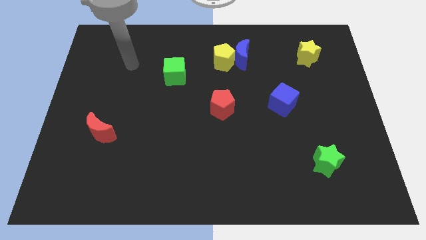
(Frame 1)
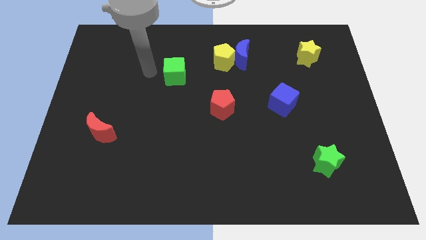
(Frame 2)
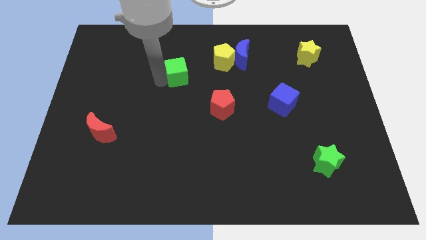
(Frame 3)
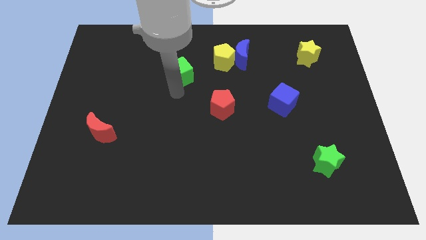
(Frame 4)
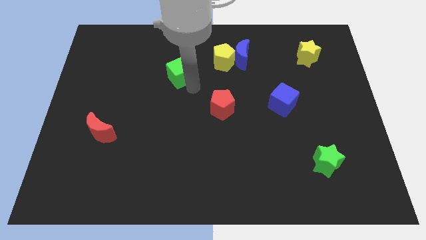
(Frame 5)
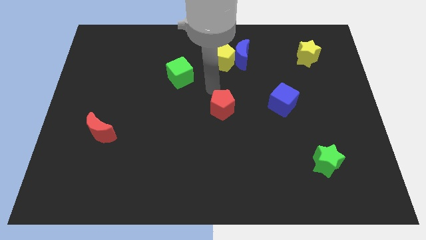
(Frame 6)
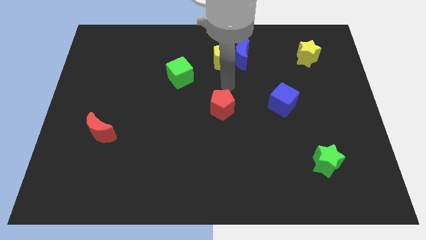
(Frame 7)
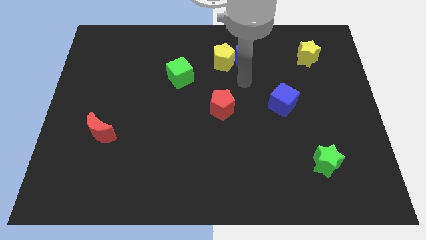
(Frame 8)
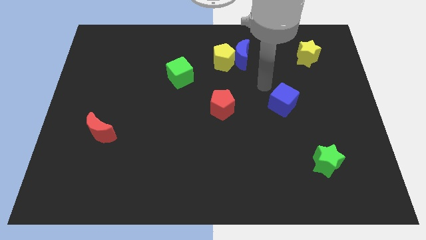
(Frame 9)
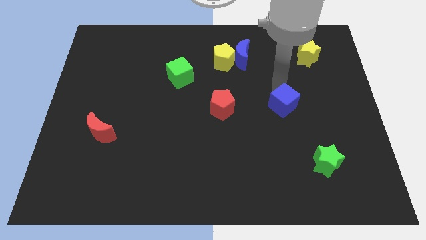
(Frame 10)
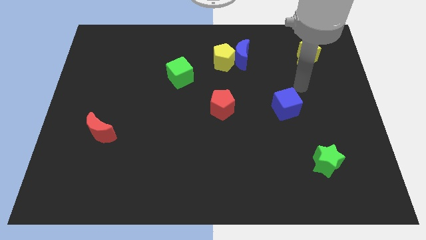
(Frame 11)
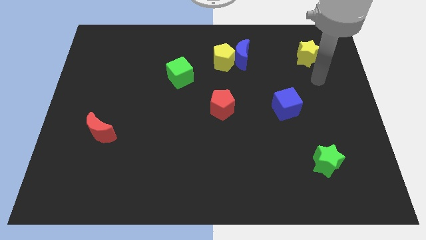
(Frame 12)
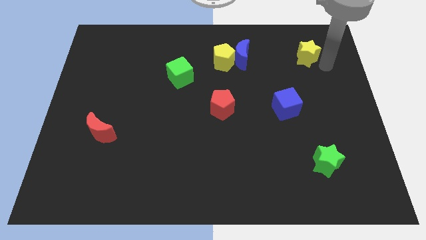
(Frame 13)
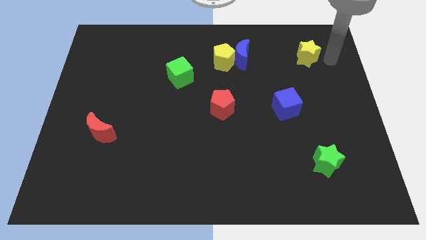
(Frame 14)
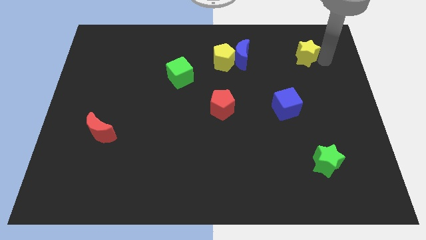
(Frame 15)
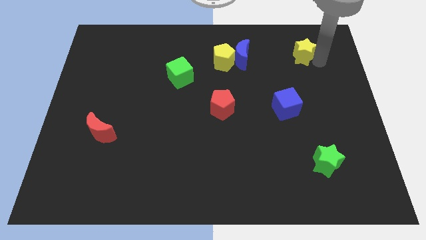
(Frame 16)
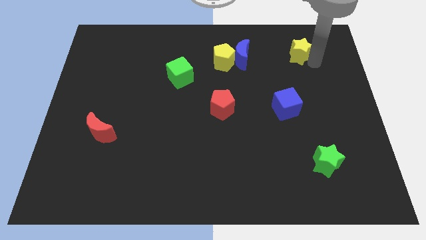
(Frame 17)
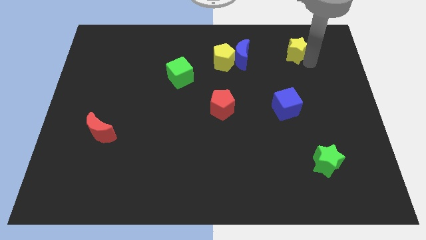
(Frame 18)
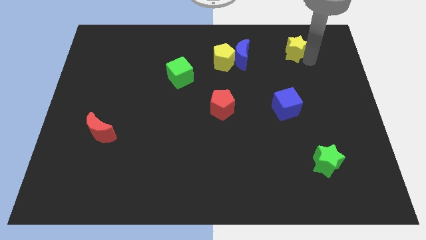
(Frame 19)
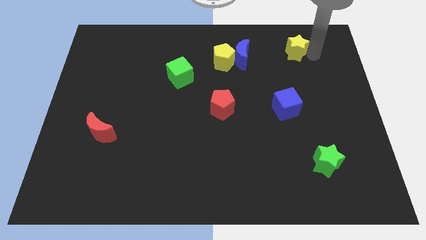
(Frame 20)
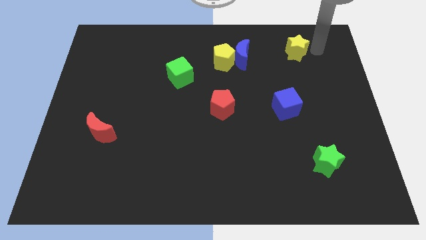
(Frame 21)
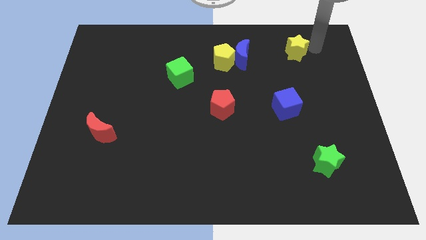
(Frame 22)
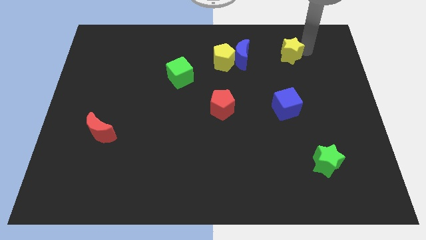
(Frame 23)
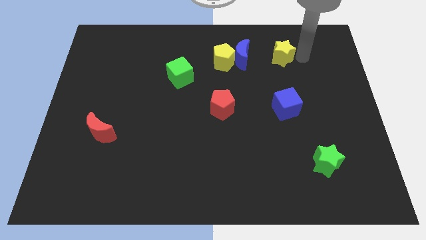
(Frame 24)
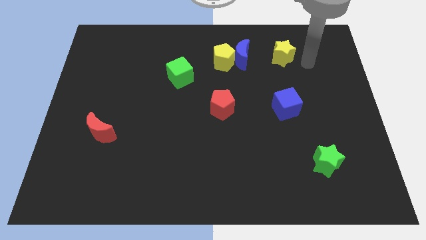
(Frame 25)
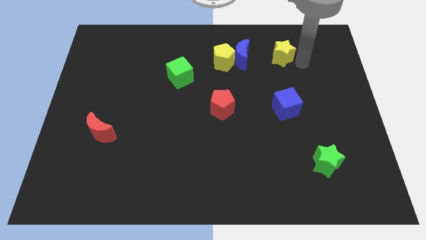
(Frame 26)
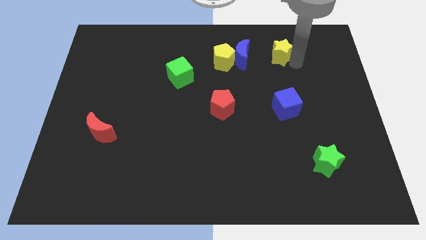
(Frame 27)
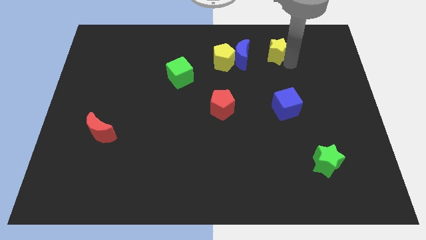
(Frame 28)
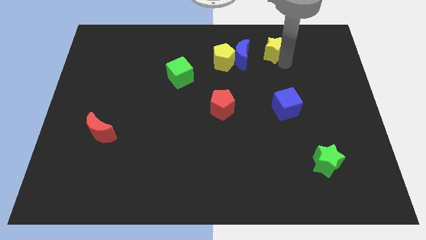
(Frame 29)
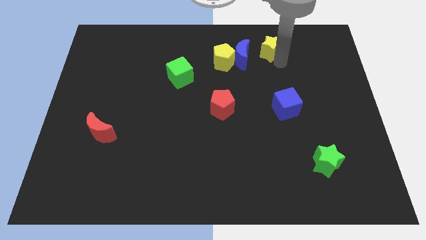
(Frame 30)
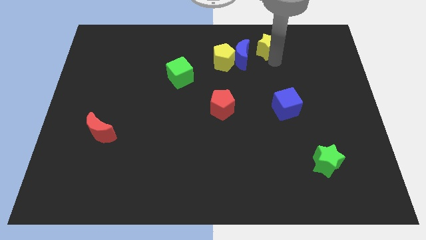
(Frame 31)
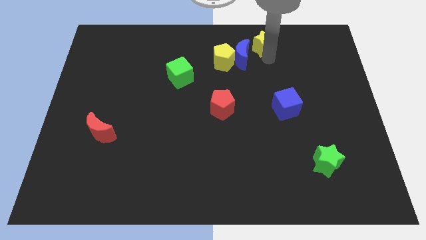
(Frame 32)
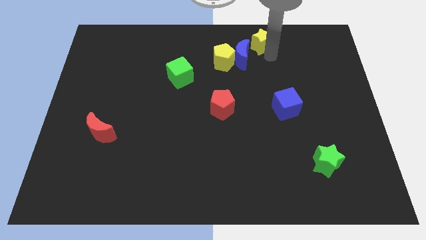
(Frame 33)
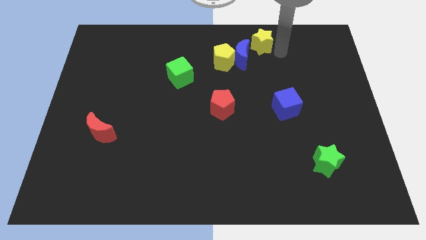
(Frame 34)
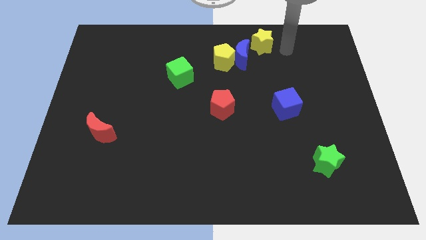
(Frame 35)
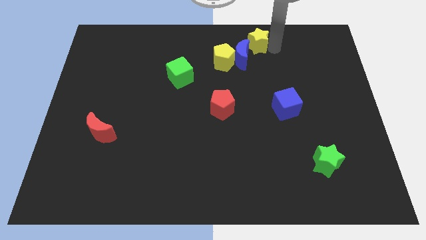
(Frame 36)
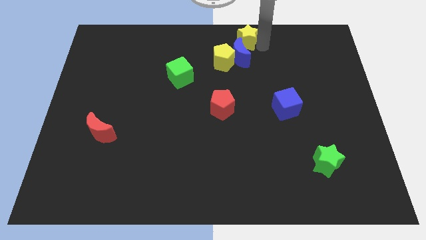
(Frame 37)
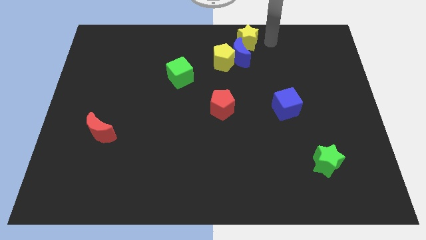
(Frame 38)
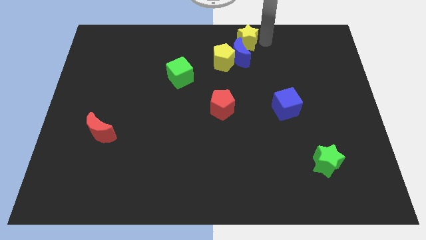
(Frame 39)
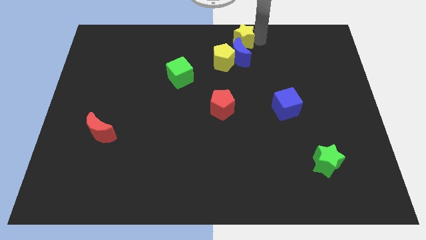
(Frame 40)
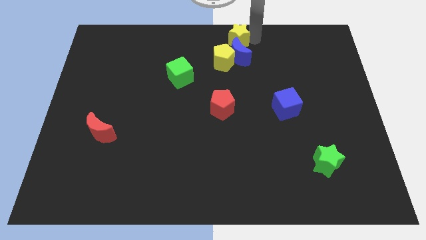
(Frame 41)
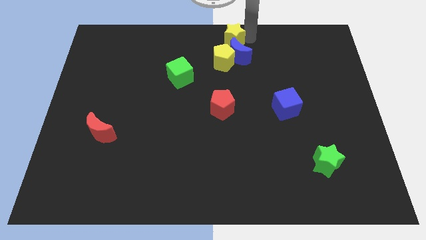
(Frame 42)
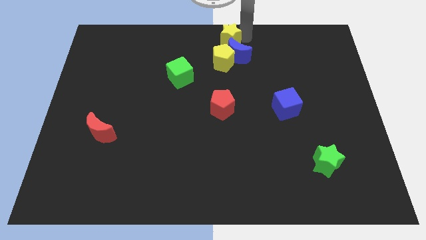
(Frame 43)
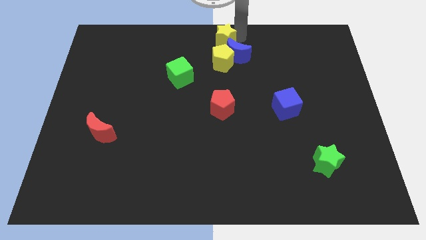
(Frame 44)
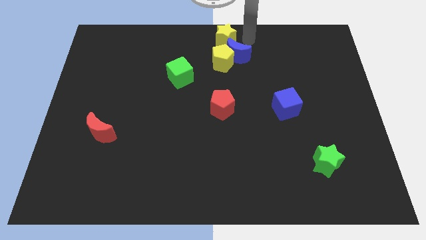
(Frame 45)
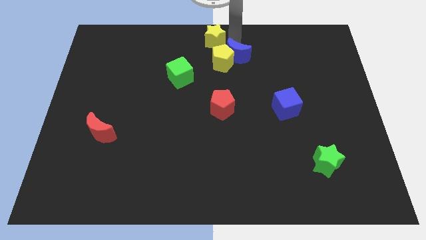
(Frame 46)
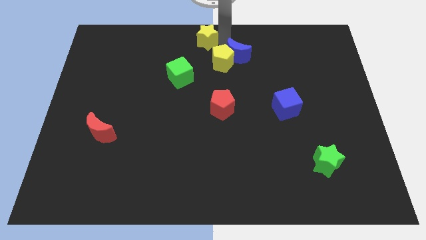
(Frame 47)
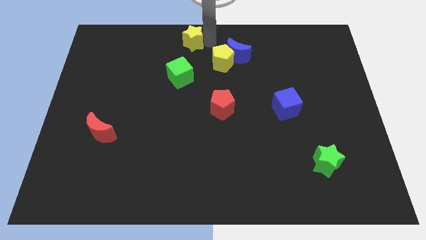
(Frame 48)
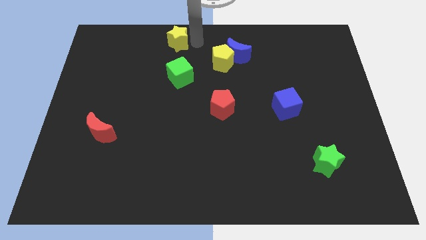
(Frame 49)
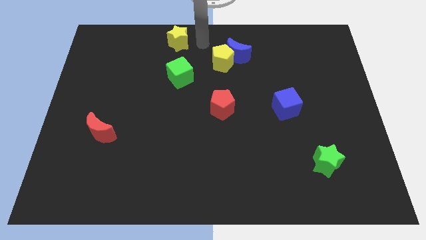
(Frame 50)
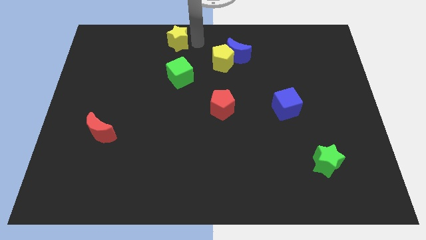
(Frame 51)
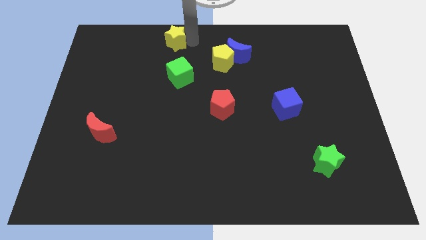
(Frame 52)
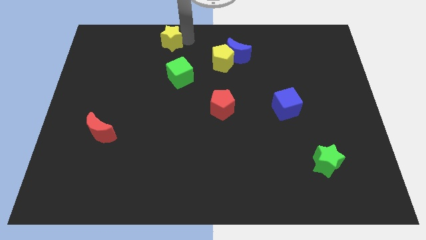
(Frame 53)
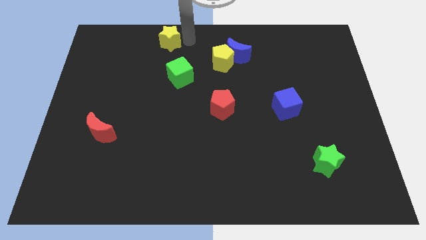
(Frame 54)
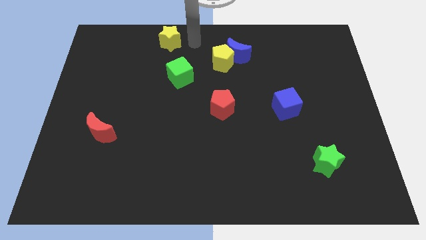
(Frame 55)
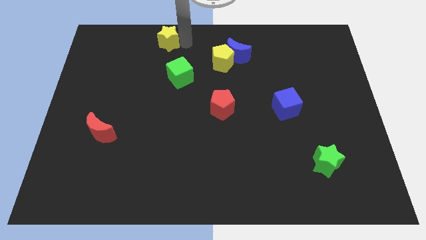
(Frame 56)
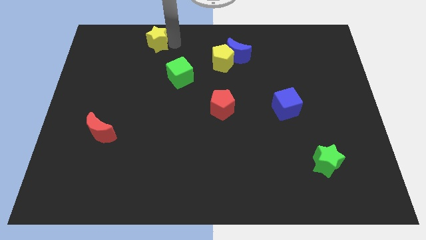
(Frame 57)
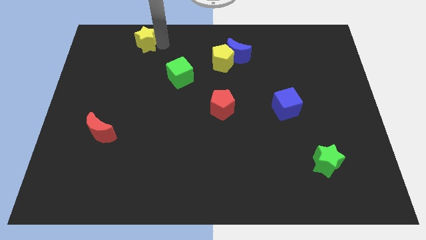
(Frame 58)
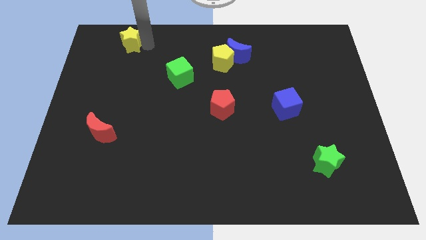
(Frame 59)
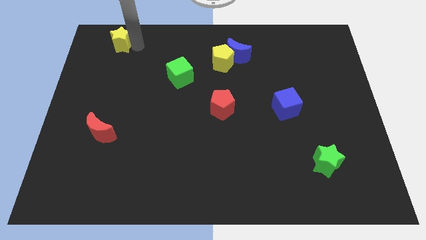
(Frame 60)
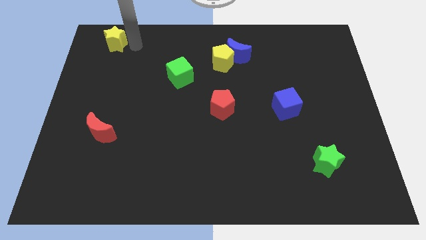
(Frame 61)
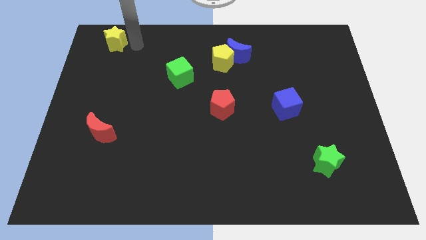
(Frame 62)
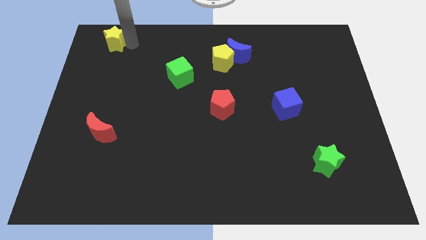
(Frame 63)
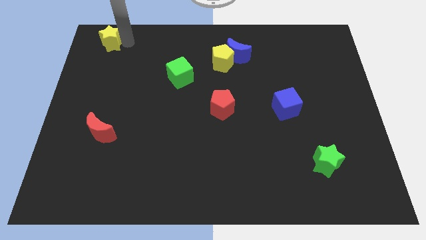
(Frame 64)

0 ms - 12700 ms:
put the yellow star to the upper left corner
